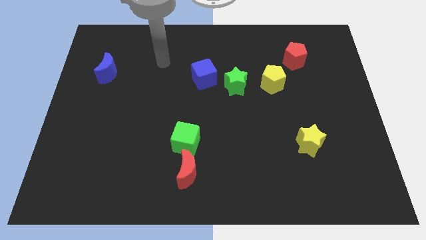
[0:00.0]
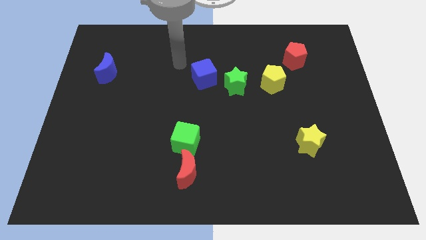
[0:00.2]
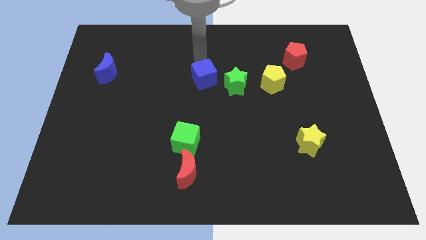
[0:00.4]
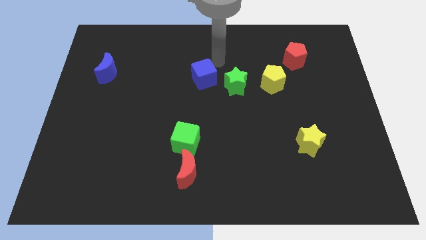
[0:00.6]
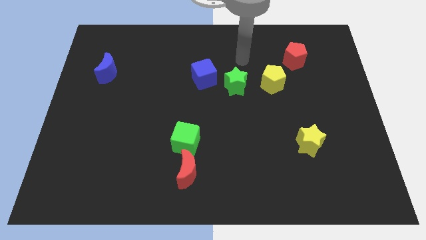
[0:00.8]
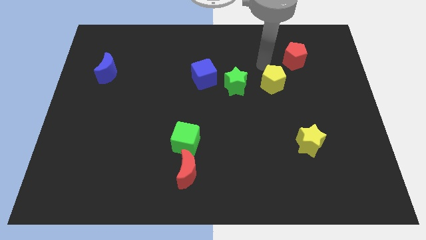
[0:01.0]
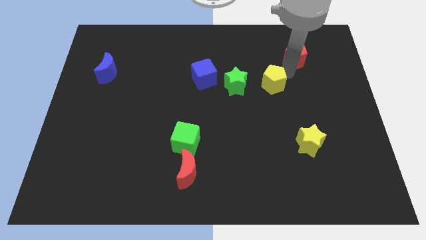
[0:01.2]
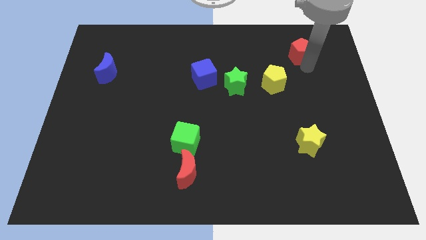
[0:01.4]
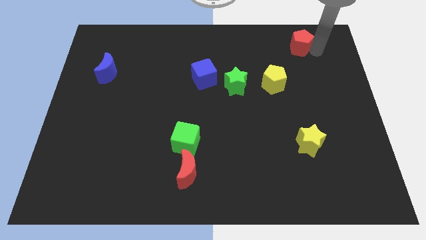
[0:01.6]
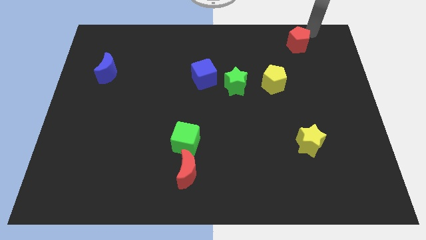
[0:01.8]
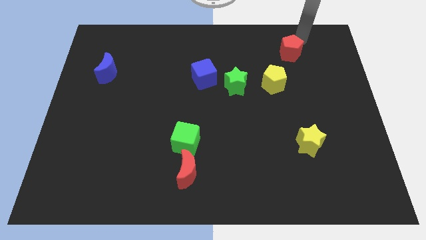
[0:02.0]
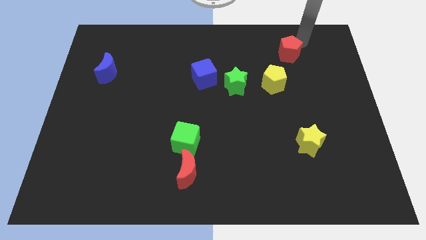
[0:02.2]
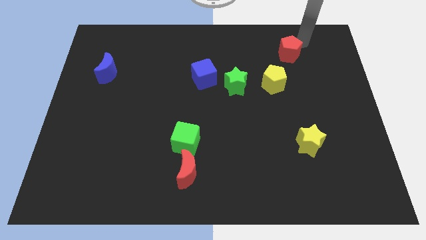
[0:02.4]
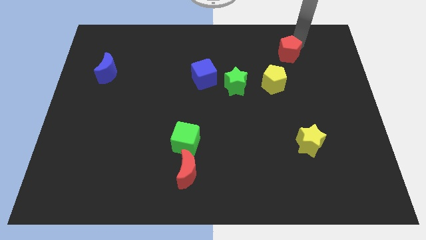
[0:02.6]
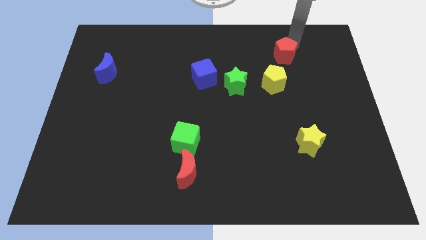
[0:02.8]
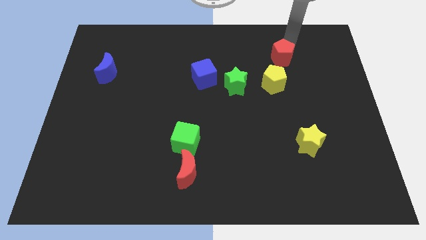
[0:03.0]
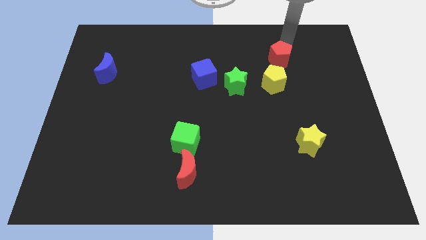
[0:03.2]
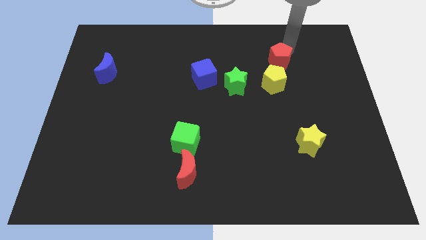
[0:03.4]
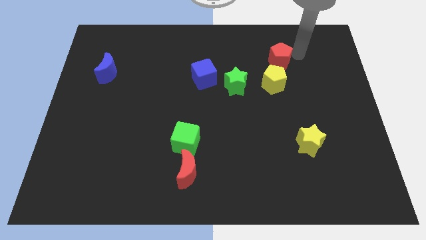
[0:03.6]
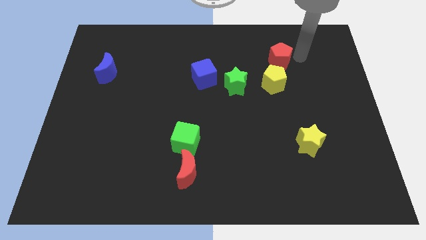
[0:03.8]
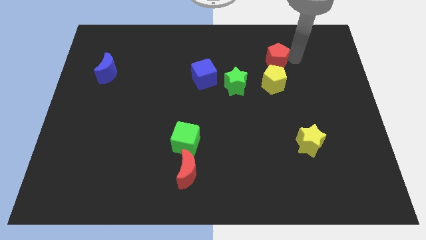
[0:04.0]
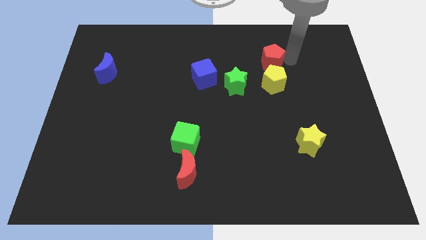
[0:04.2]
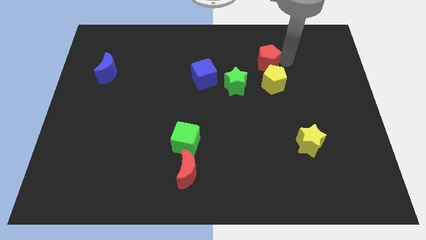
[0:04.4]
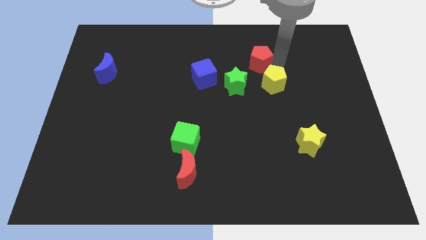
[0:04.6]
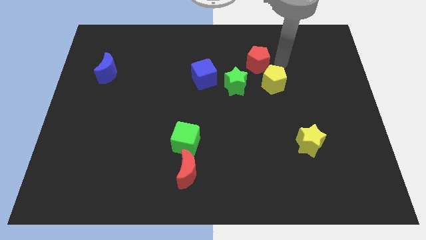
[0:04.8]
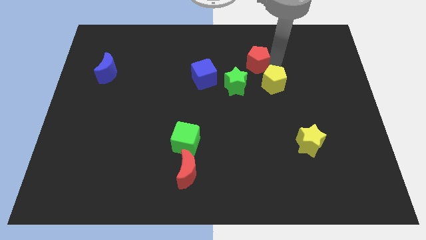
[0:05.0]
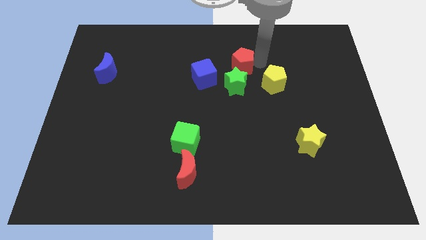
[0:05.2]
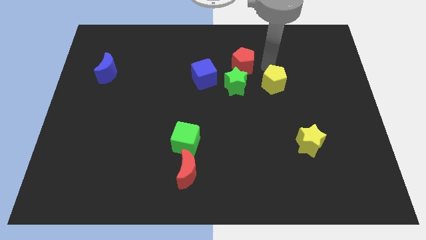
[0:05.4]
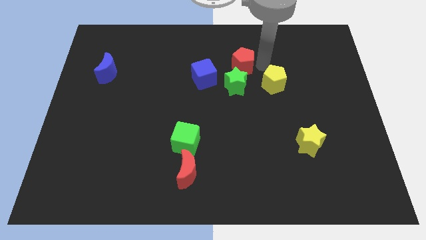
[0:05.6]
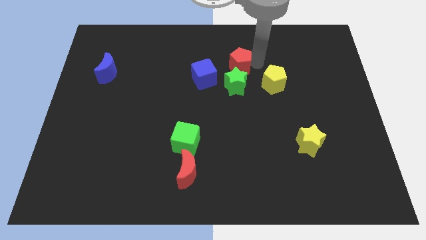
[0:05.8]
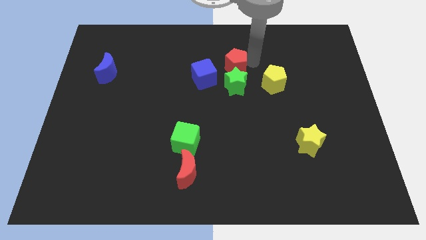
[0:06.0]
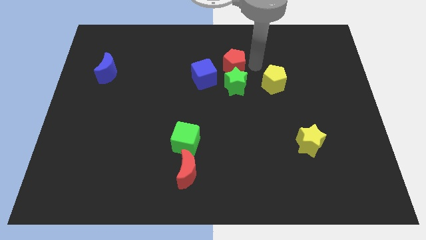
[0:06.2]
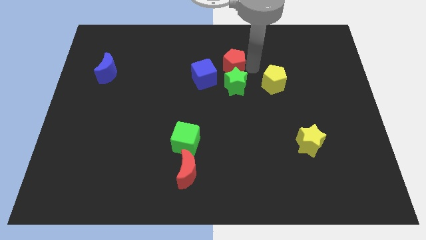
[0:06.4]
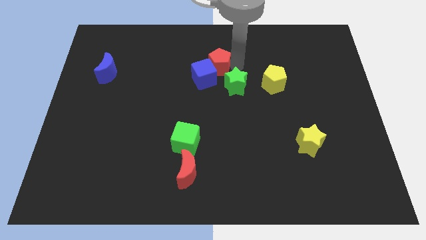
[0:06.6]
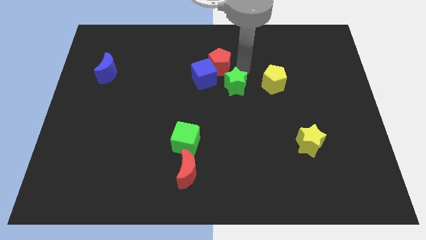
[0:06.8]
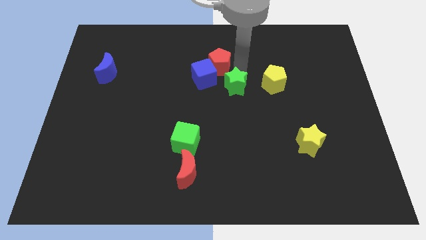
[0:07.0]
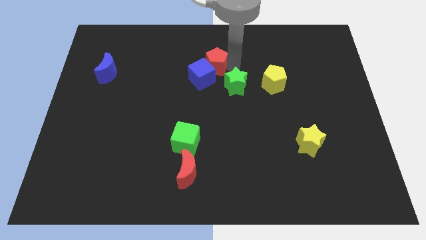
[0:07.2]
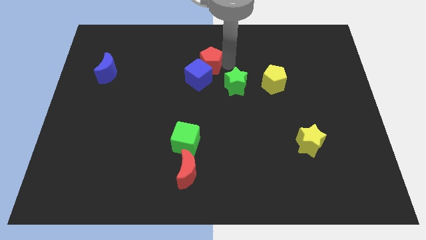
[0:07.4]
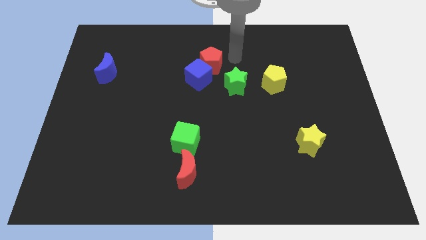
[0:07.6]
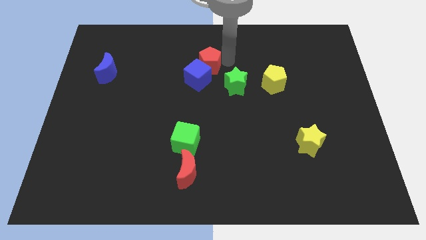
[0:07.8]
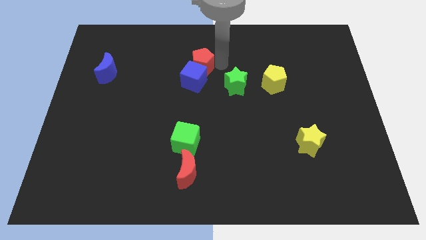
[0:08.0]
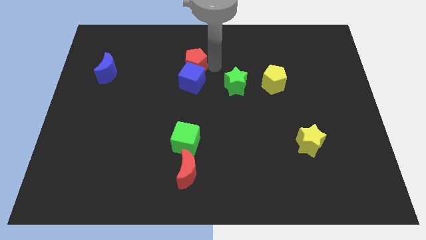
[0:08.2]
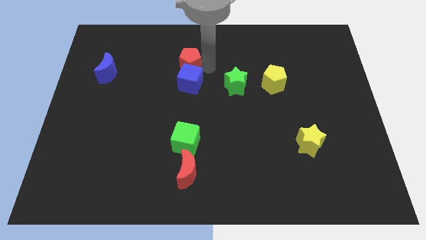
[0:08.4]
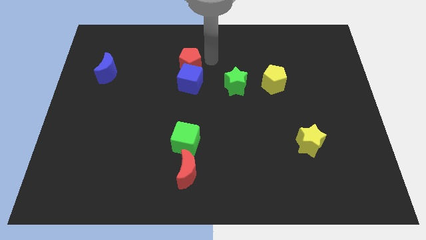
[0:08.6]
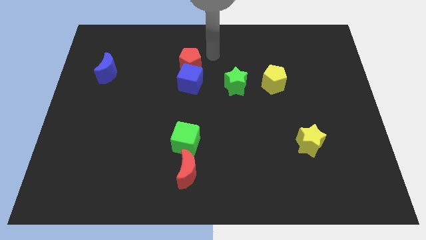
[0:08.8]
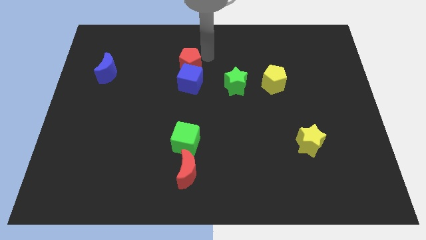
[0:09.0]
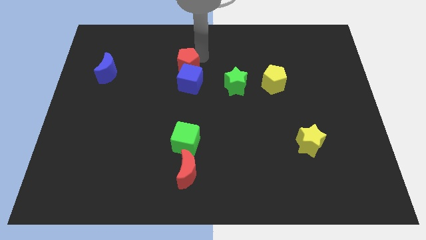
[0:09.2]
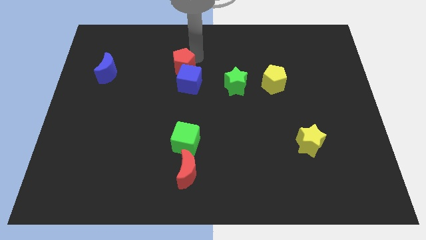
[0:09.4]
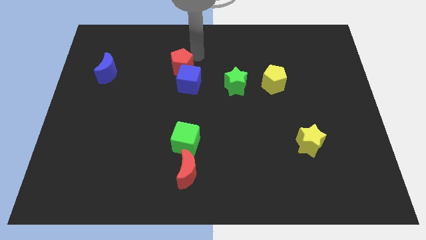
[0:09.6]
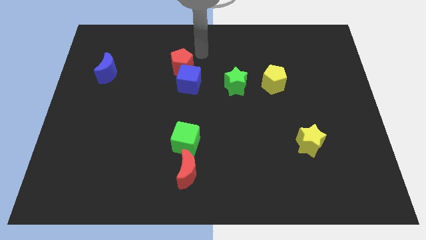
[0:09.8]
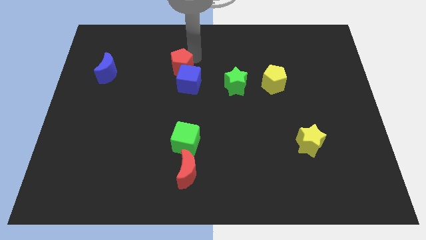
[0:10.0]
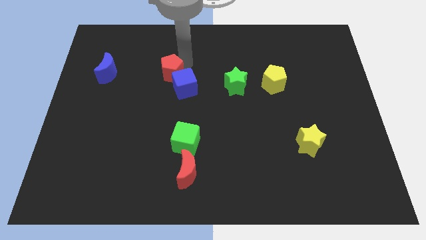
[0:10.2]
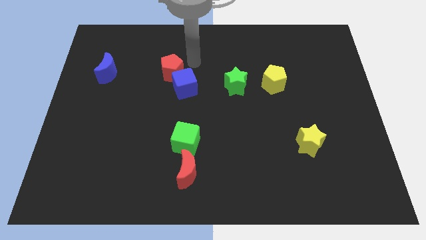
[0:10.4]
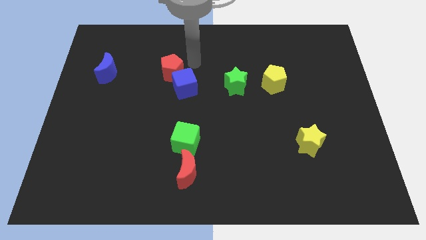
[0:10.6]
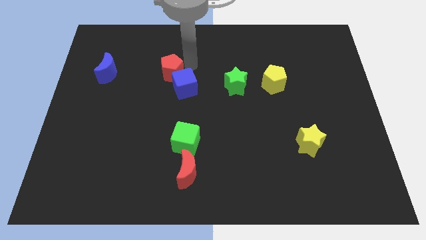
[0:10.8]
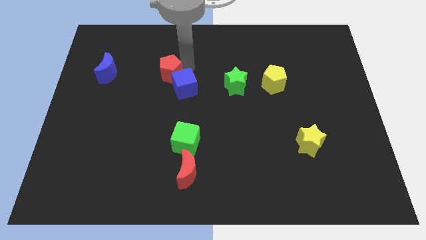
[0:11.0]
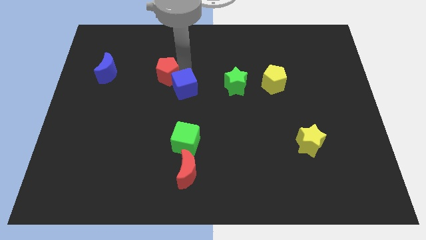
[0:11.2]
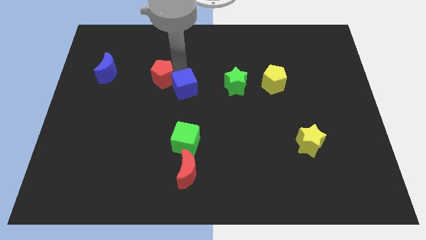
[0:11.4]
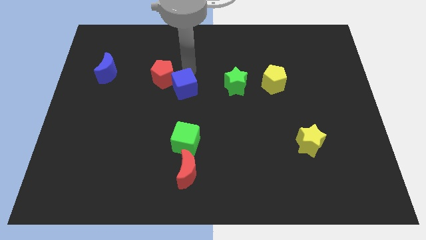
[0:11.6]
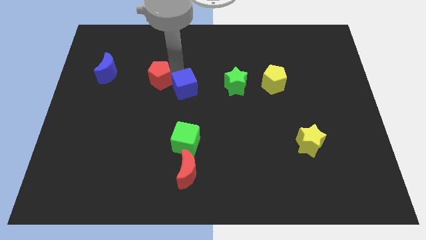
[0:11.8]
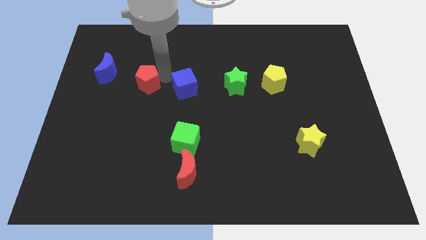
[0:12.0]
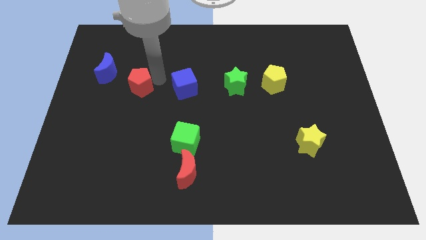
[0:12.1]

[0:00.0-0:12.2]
move the red pentagon to the bottom right of the blue moon

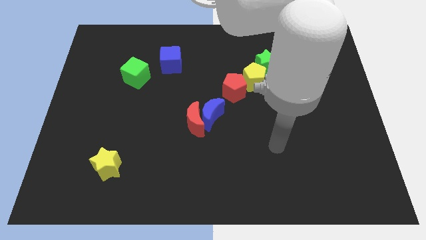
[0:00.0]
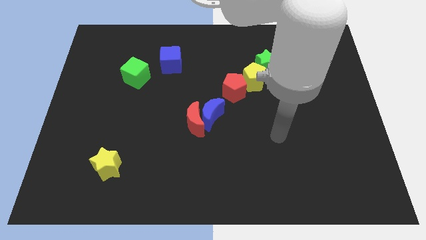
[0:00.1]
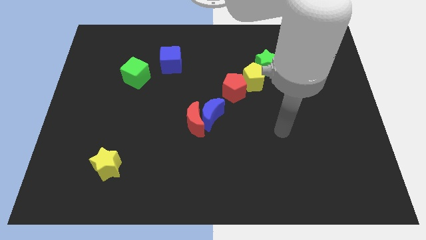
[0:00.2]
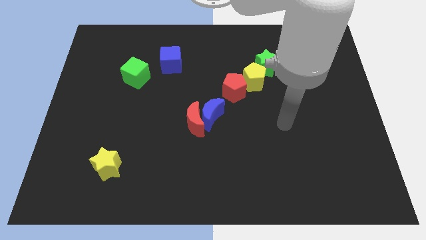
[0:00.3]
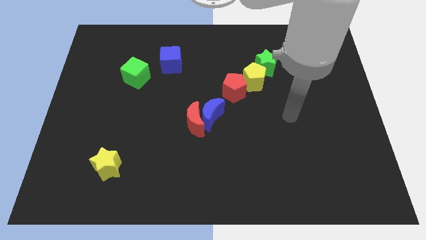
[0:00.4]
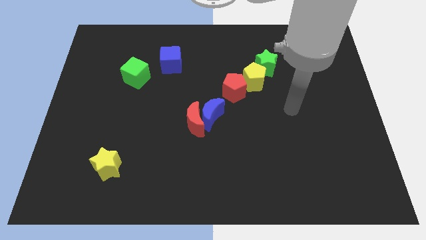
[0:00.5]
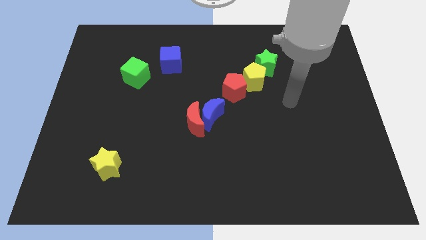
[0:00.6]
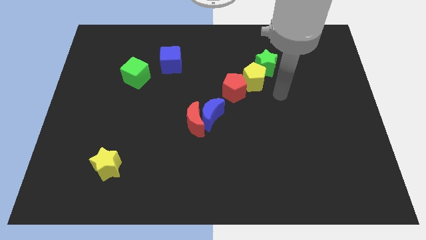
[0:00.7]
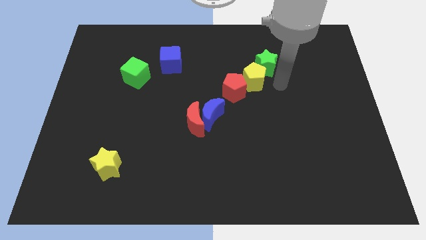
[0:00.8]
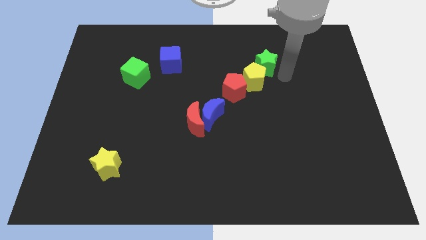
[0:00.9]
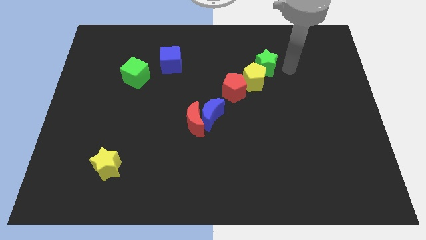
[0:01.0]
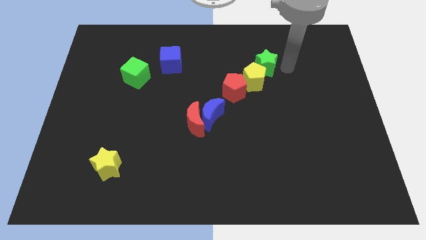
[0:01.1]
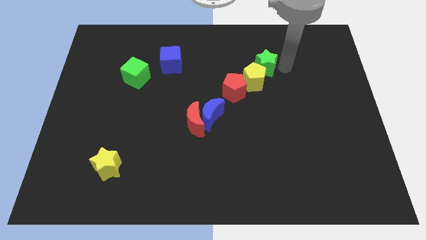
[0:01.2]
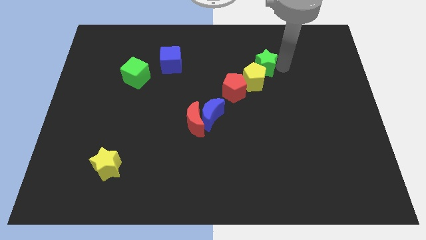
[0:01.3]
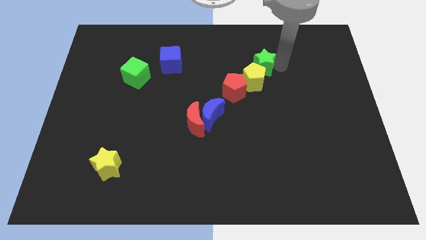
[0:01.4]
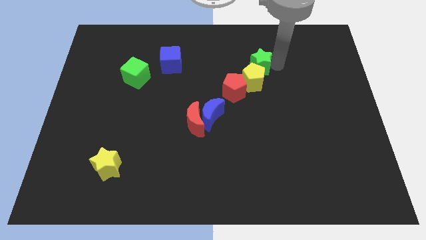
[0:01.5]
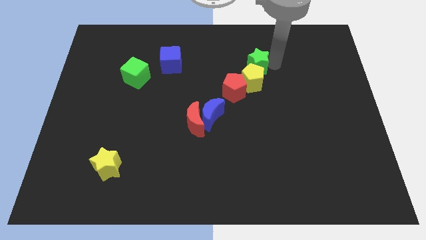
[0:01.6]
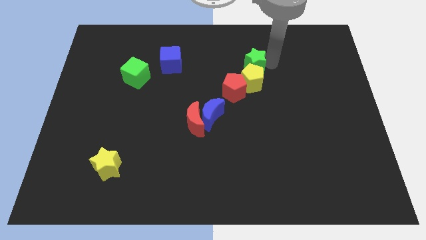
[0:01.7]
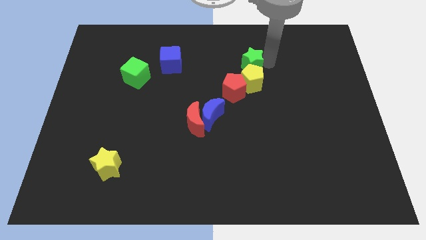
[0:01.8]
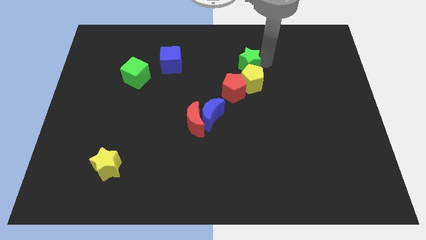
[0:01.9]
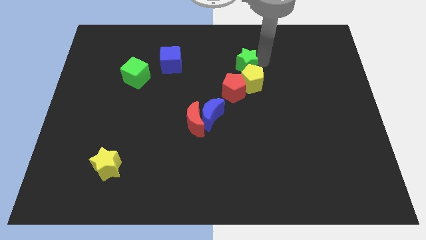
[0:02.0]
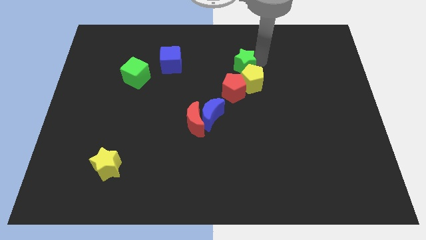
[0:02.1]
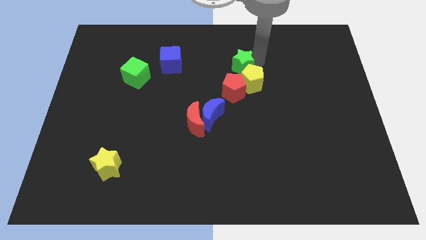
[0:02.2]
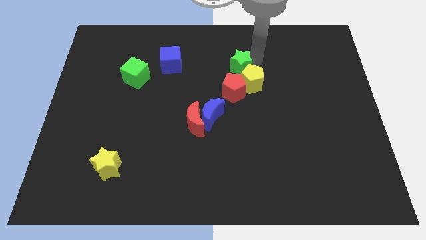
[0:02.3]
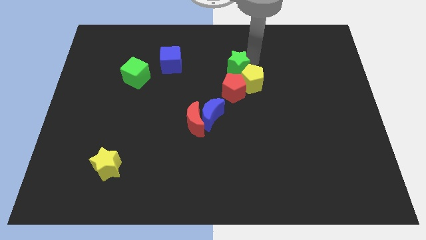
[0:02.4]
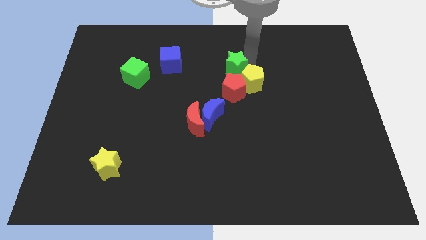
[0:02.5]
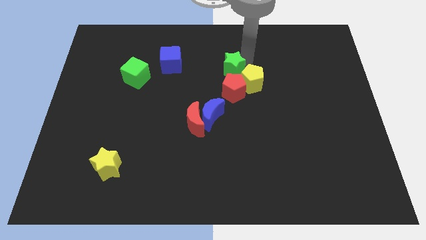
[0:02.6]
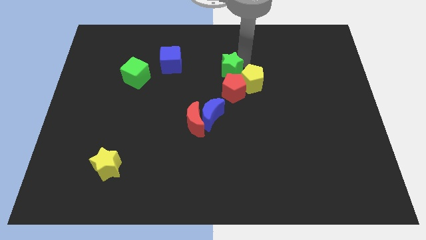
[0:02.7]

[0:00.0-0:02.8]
move the green star to the top left side of the red pentagon
